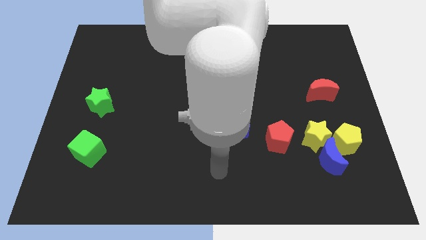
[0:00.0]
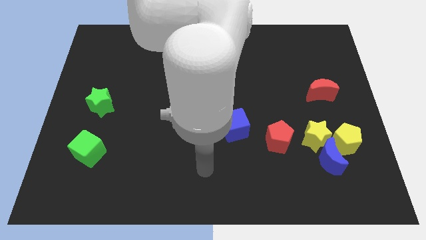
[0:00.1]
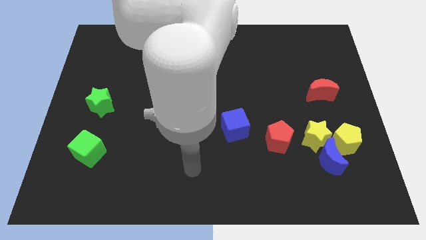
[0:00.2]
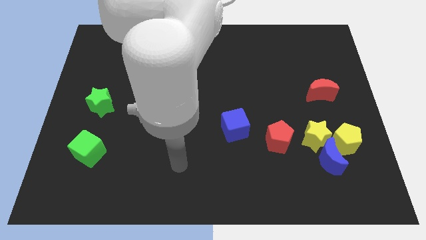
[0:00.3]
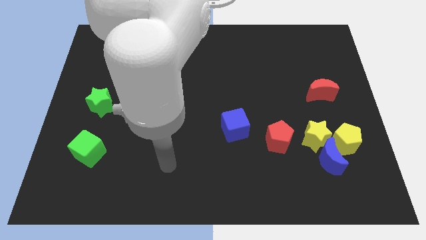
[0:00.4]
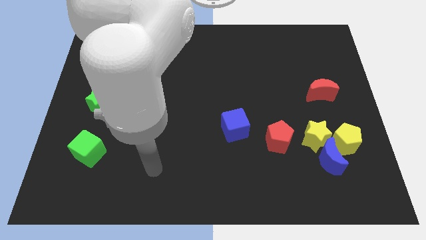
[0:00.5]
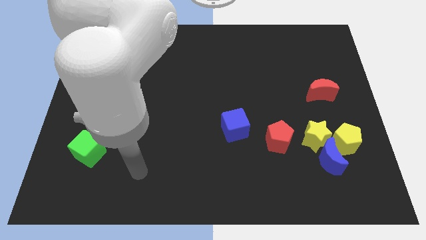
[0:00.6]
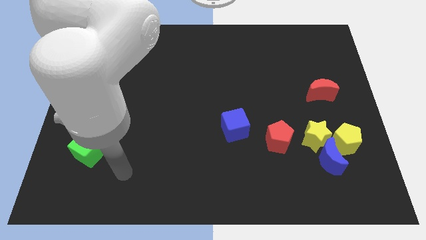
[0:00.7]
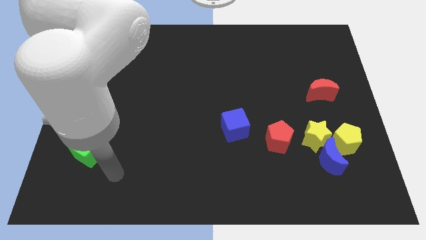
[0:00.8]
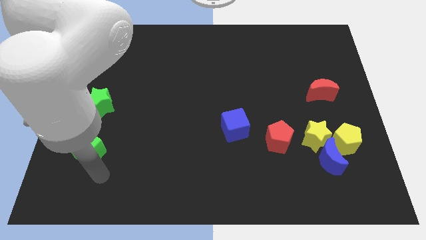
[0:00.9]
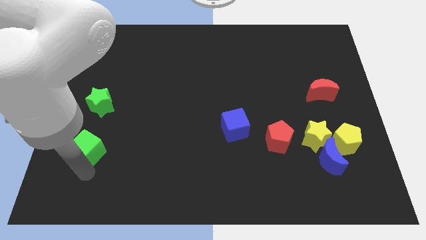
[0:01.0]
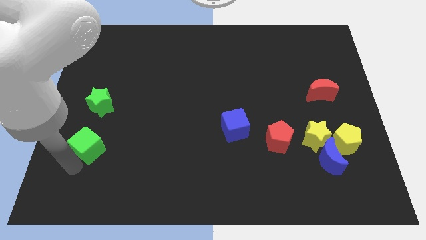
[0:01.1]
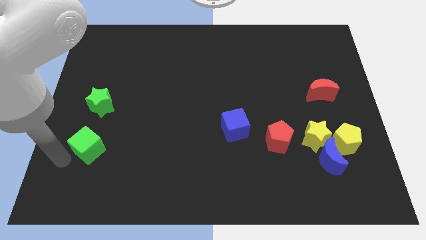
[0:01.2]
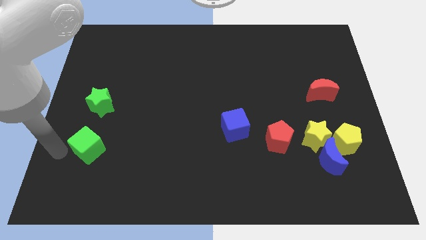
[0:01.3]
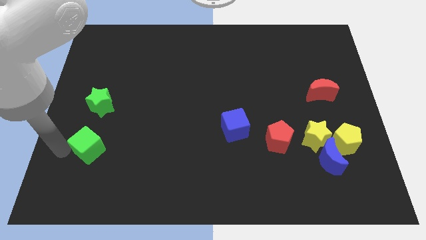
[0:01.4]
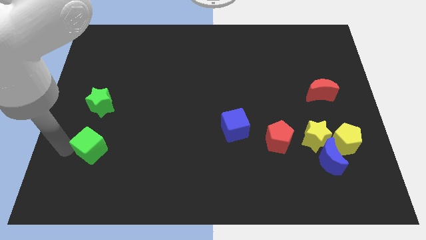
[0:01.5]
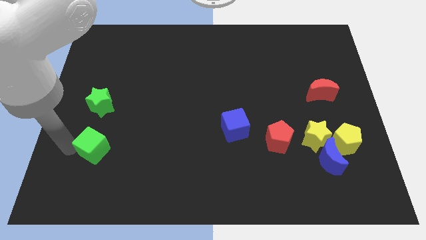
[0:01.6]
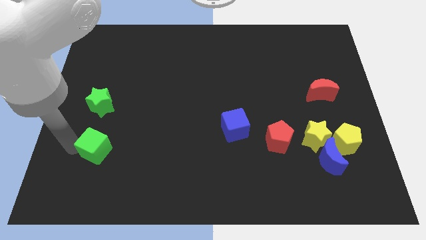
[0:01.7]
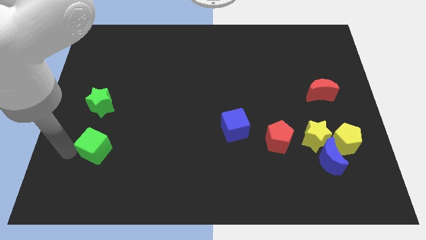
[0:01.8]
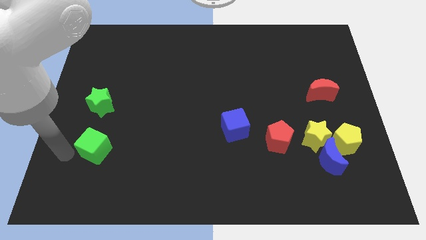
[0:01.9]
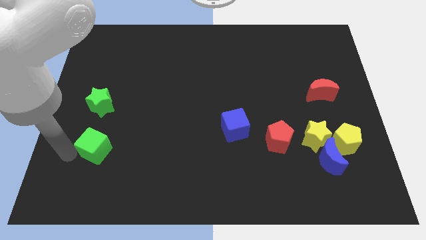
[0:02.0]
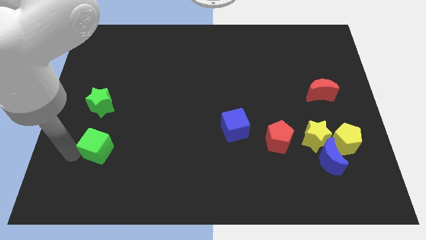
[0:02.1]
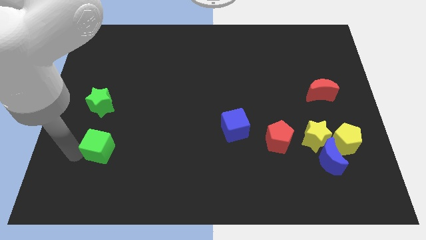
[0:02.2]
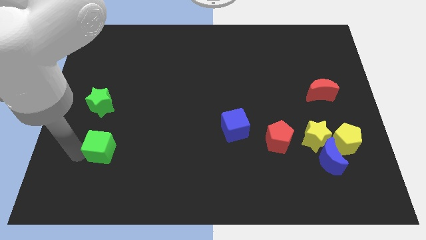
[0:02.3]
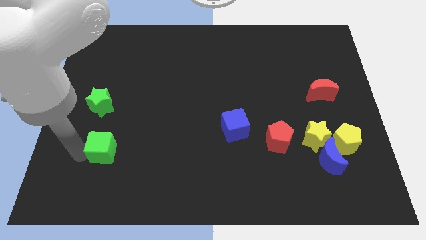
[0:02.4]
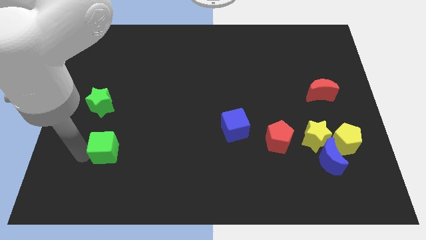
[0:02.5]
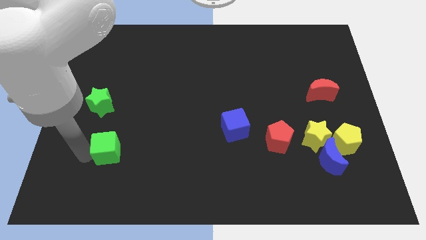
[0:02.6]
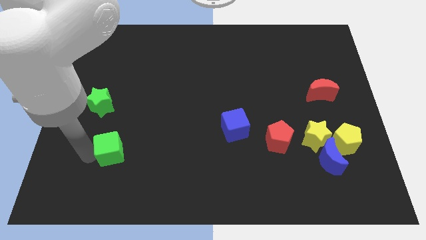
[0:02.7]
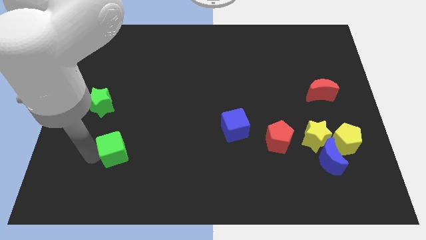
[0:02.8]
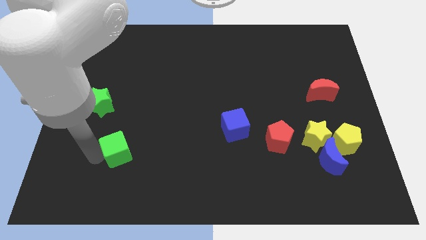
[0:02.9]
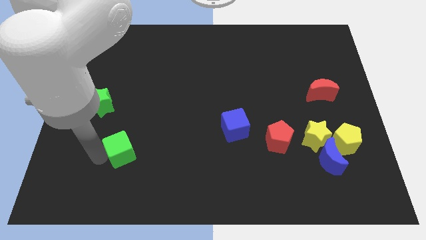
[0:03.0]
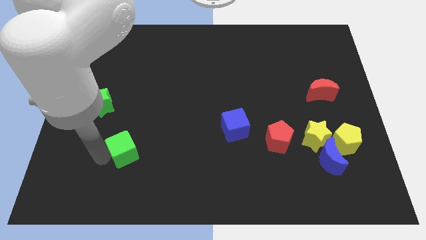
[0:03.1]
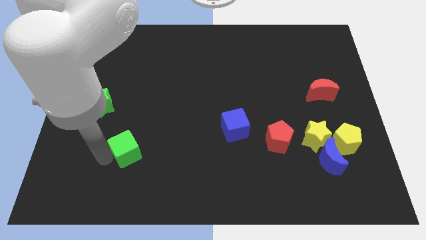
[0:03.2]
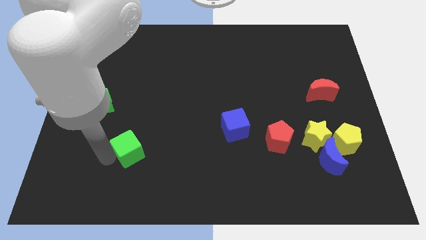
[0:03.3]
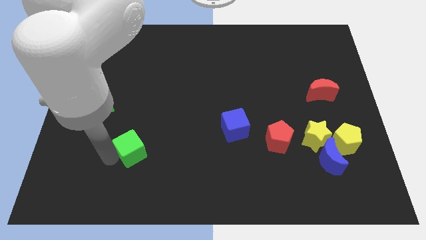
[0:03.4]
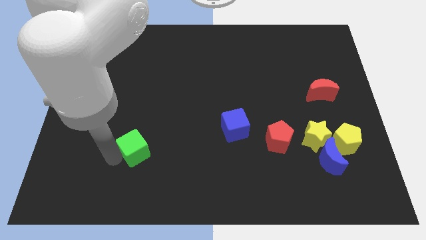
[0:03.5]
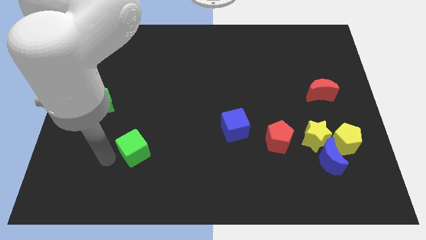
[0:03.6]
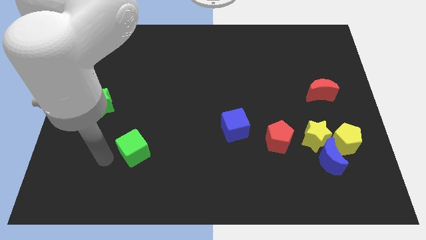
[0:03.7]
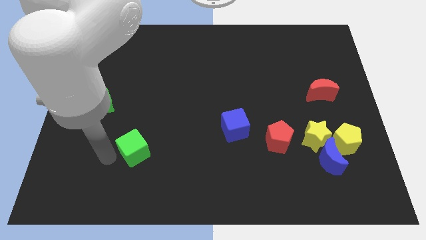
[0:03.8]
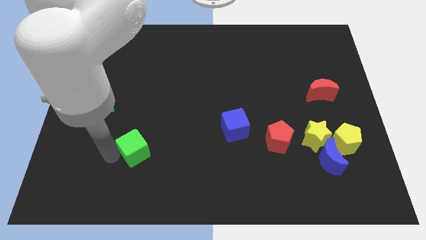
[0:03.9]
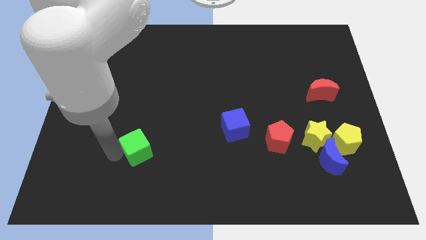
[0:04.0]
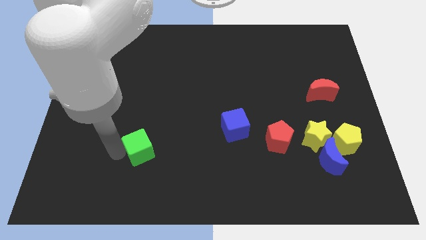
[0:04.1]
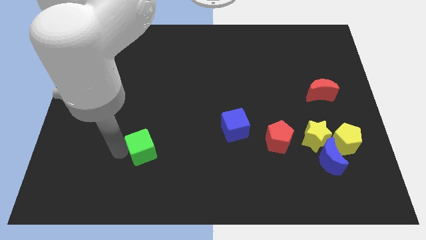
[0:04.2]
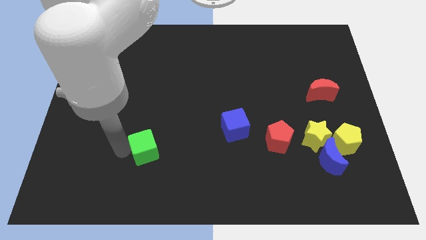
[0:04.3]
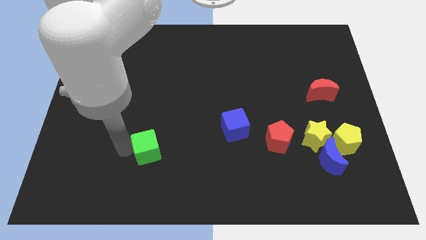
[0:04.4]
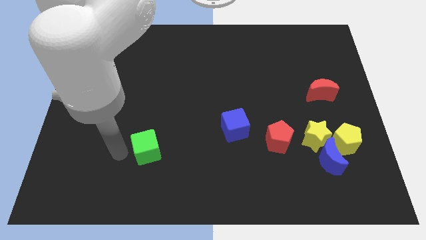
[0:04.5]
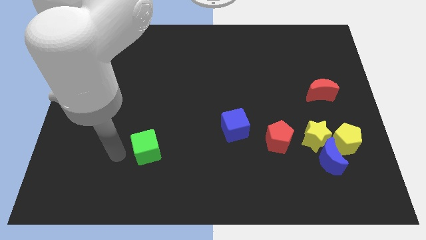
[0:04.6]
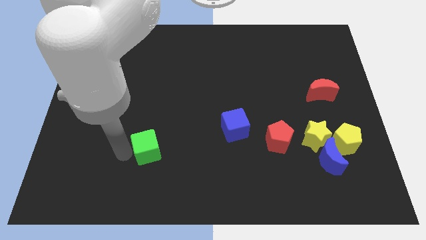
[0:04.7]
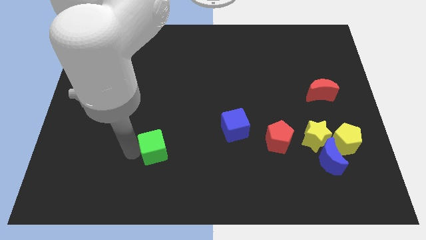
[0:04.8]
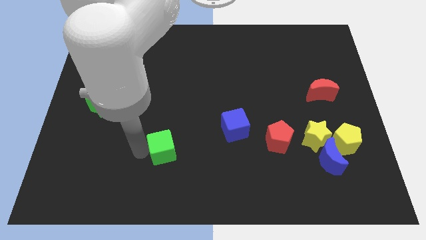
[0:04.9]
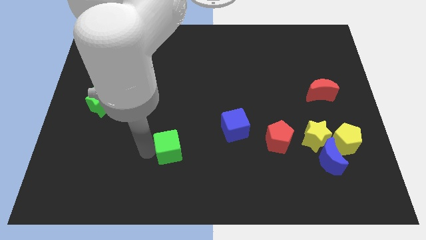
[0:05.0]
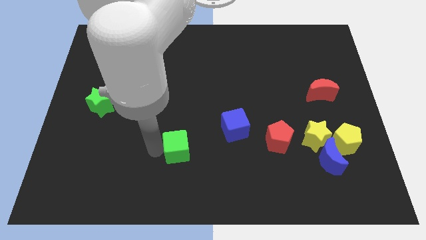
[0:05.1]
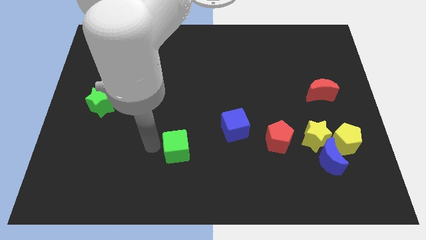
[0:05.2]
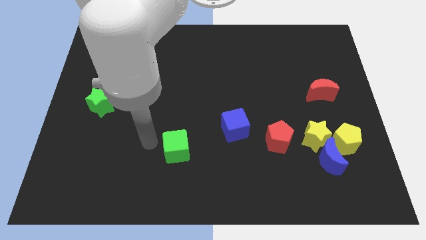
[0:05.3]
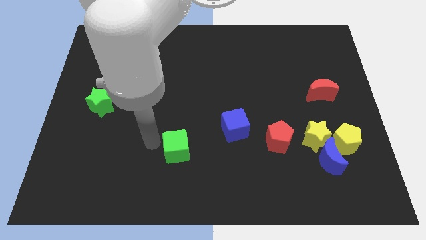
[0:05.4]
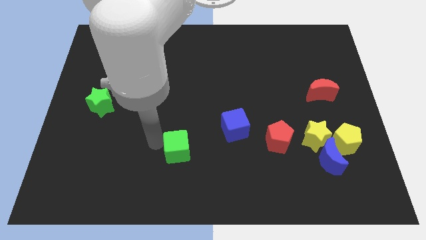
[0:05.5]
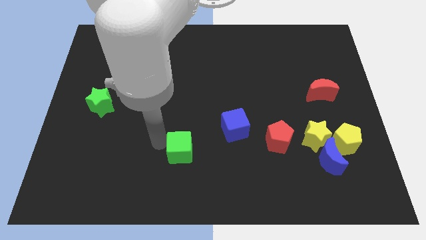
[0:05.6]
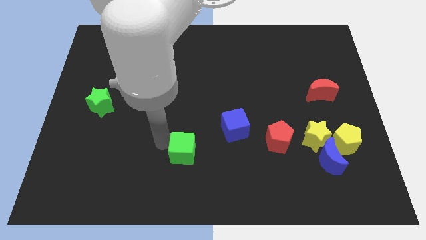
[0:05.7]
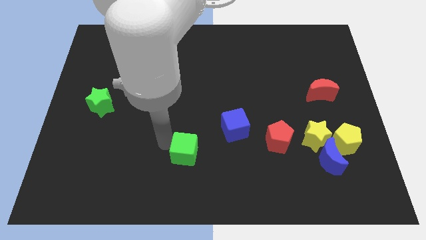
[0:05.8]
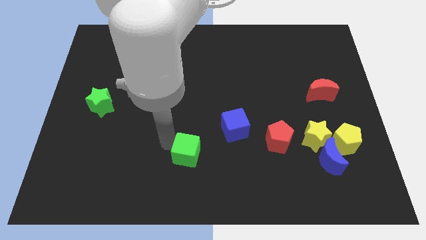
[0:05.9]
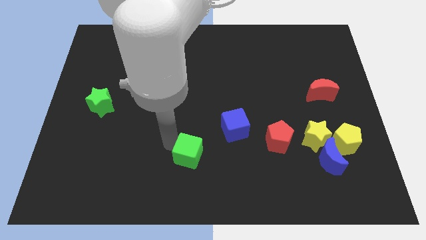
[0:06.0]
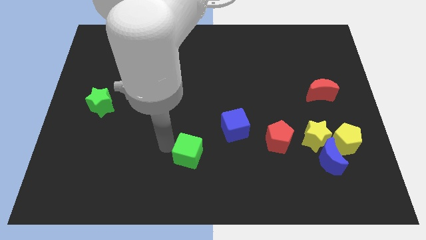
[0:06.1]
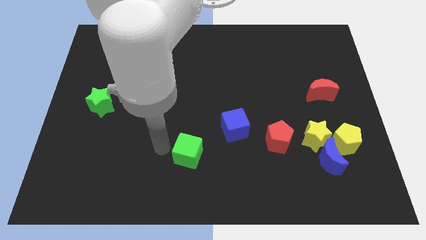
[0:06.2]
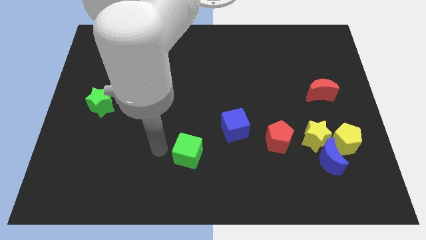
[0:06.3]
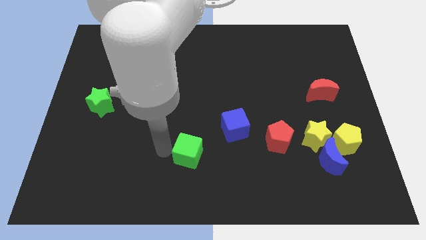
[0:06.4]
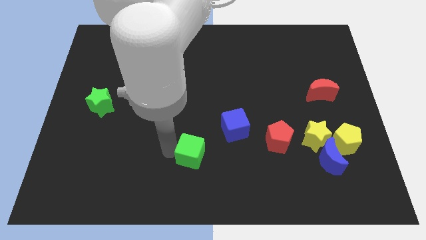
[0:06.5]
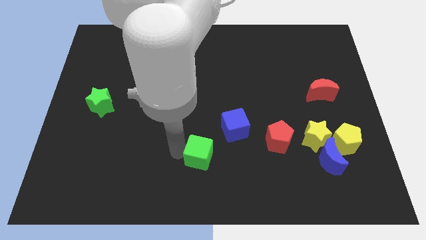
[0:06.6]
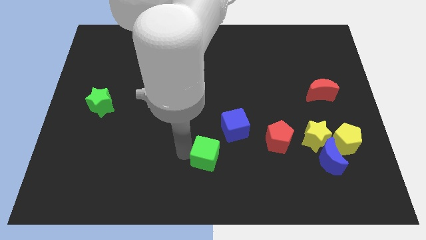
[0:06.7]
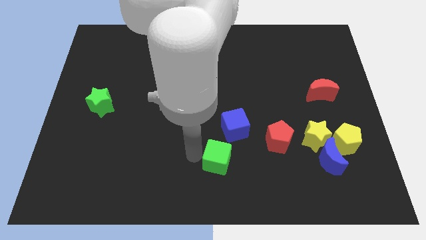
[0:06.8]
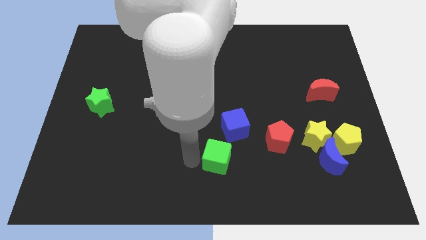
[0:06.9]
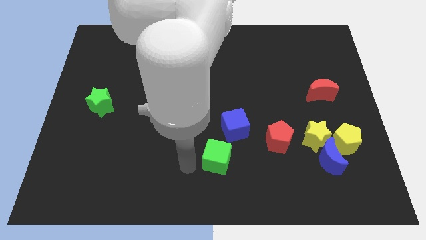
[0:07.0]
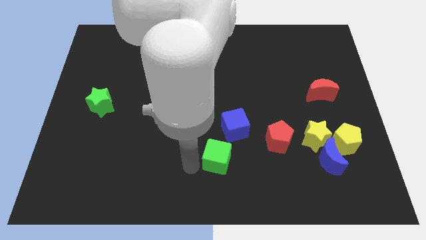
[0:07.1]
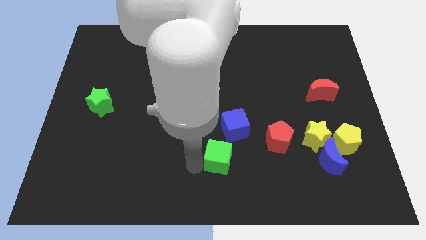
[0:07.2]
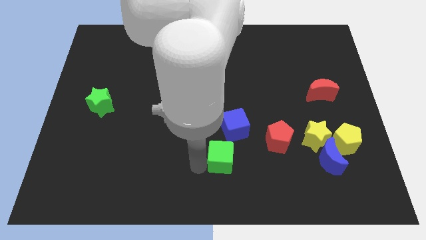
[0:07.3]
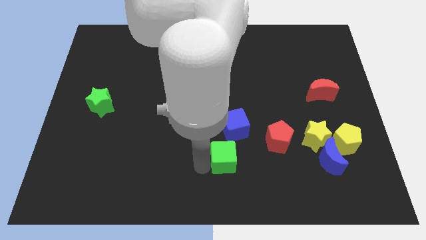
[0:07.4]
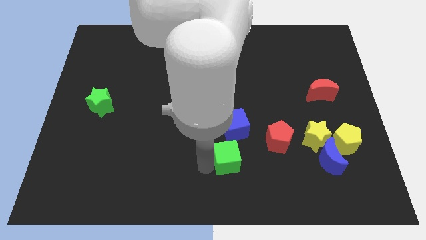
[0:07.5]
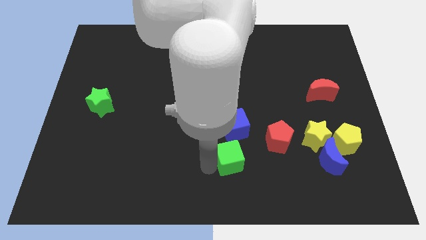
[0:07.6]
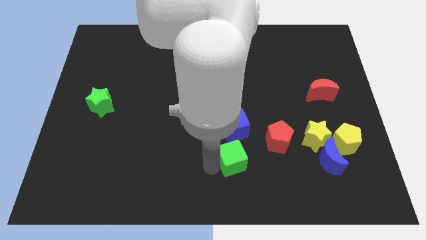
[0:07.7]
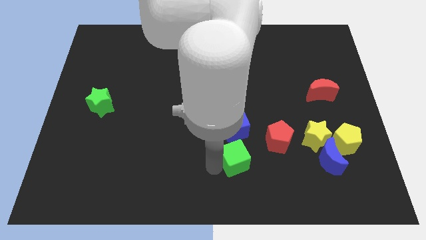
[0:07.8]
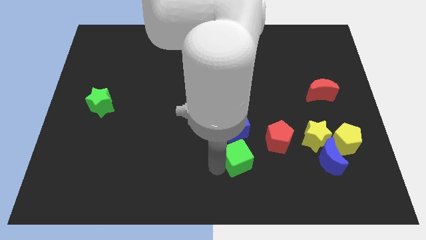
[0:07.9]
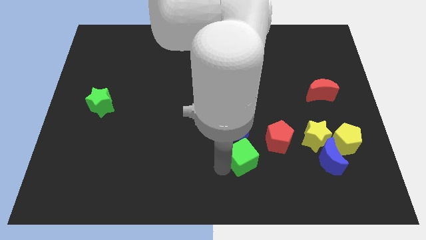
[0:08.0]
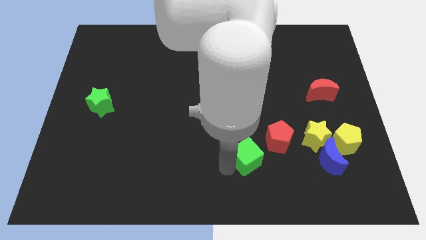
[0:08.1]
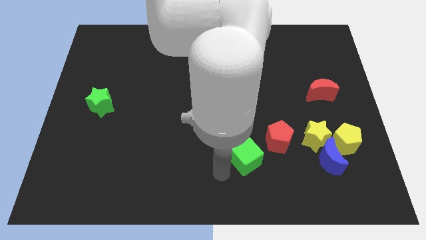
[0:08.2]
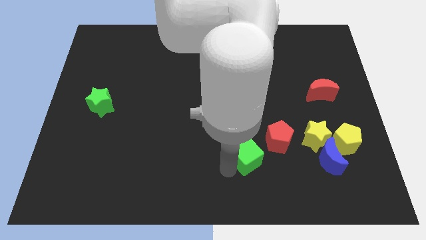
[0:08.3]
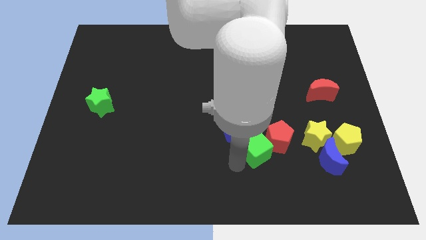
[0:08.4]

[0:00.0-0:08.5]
push the green cube to the red pentagon
